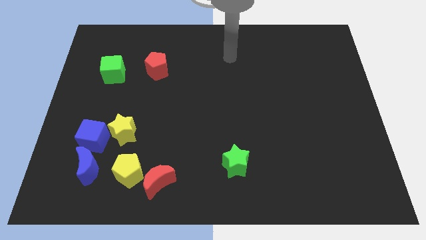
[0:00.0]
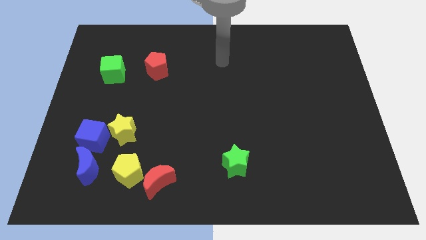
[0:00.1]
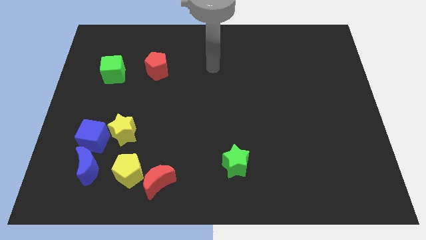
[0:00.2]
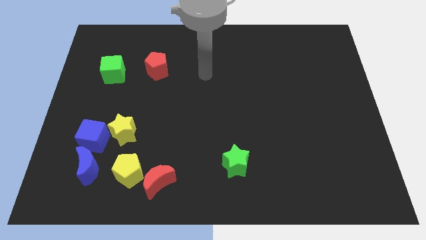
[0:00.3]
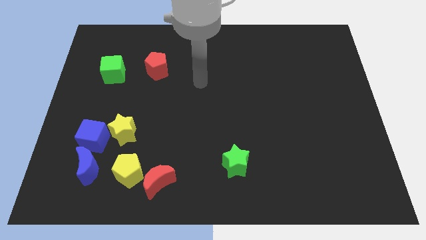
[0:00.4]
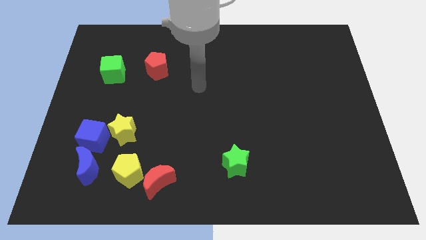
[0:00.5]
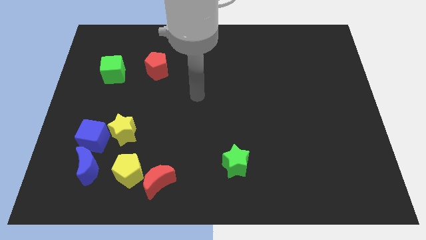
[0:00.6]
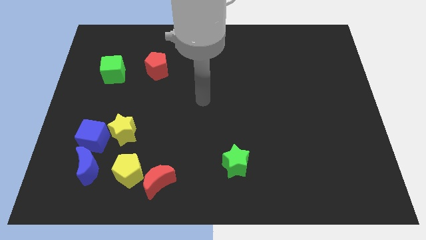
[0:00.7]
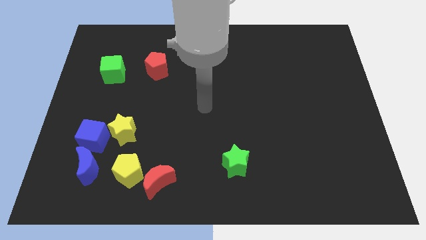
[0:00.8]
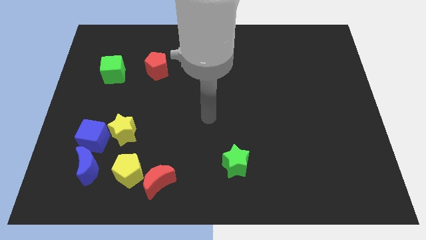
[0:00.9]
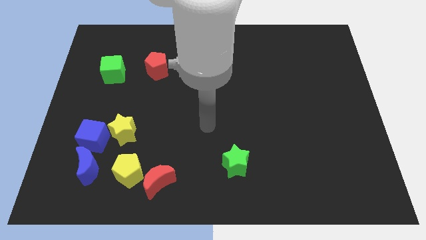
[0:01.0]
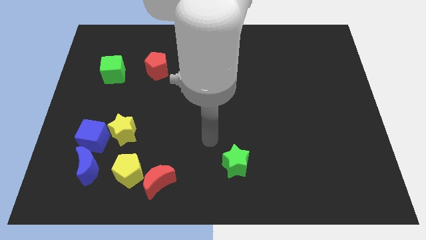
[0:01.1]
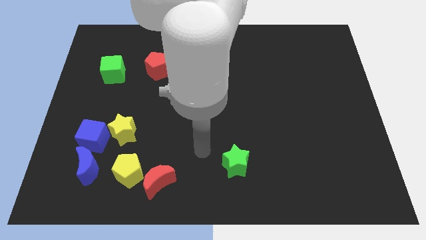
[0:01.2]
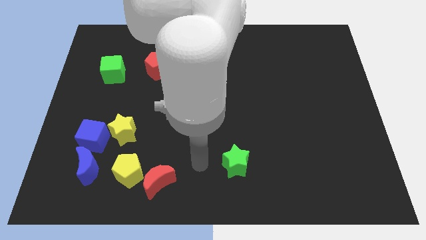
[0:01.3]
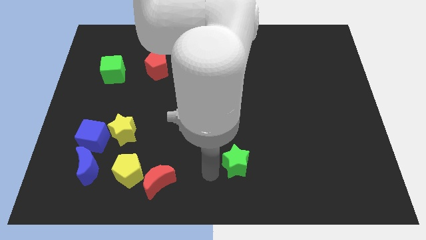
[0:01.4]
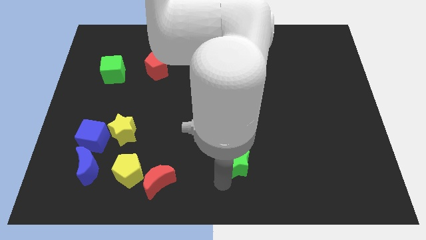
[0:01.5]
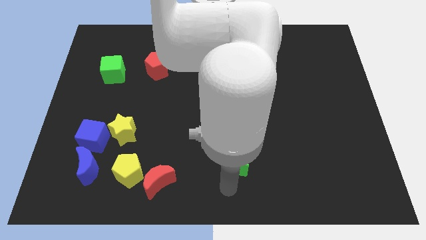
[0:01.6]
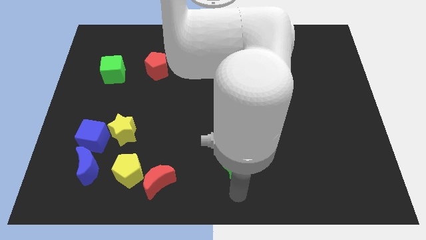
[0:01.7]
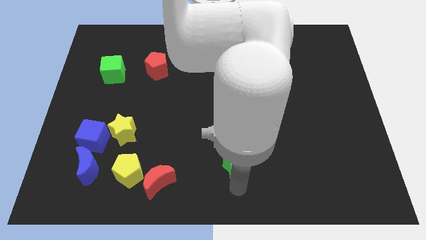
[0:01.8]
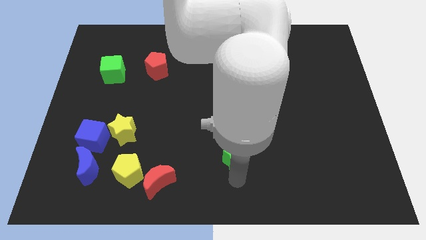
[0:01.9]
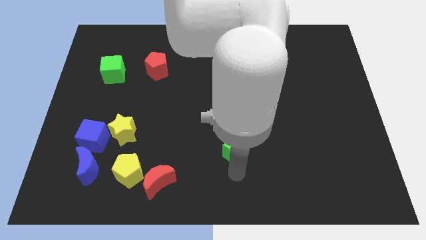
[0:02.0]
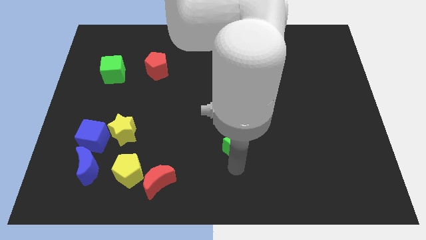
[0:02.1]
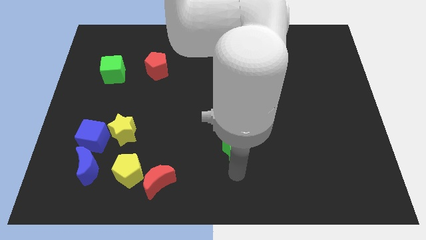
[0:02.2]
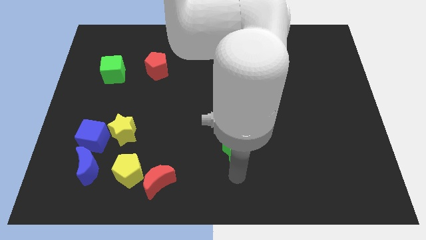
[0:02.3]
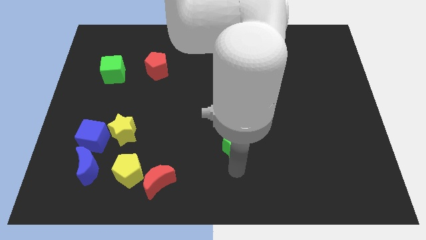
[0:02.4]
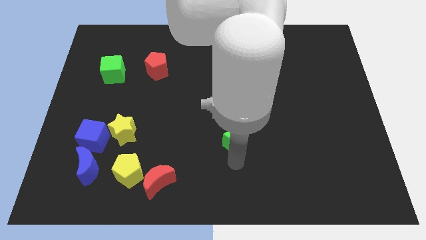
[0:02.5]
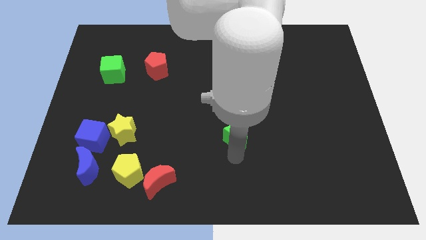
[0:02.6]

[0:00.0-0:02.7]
slide the green star upwards slightly

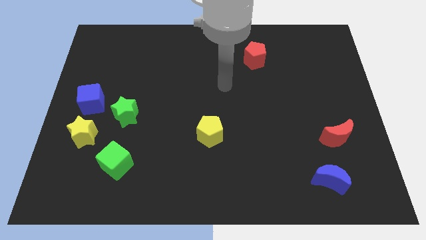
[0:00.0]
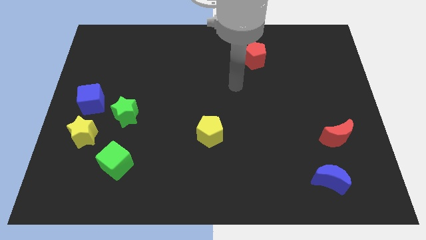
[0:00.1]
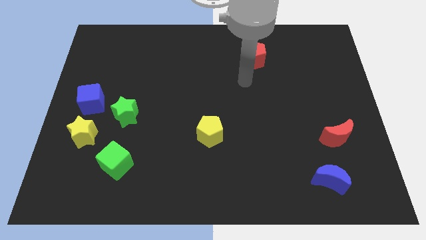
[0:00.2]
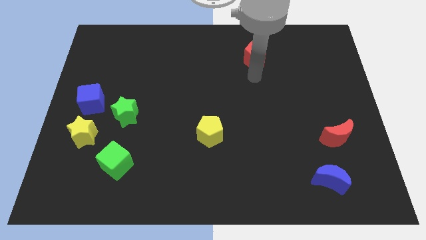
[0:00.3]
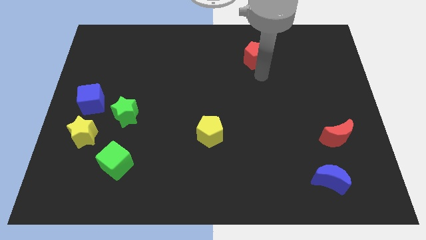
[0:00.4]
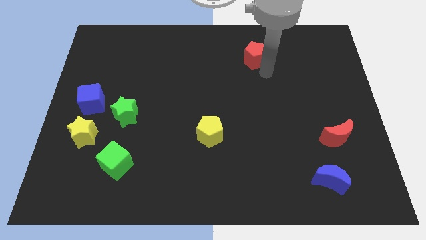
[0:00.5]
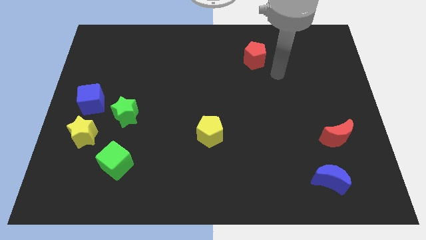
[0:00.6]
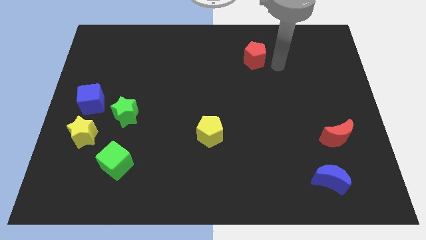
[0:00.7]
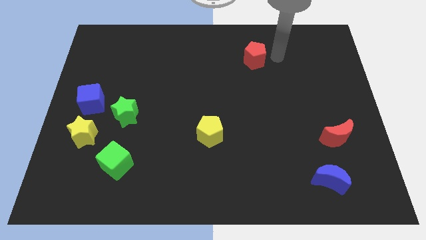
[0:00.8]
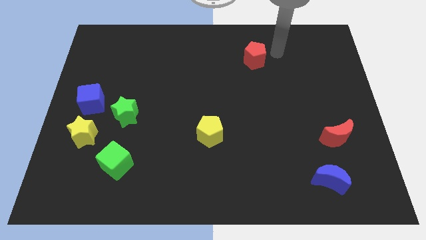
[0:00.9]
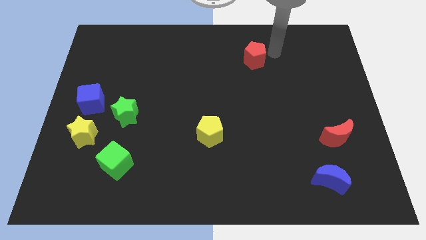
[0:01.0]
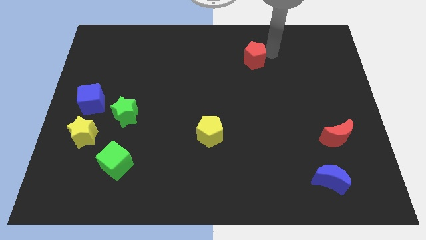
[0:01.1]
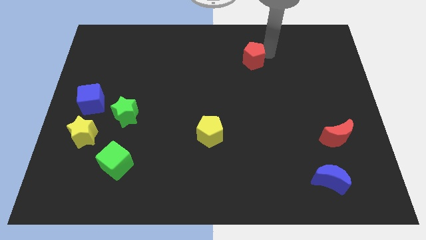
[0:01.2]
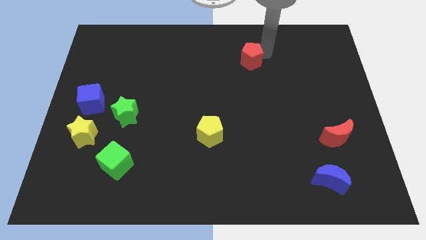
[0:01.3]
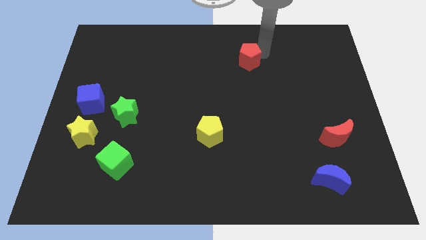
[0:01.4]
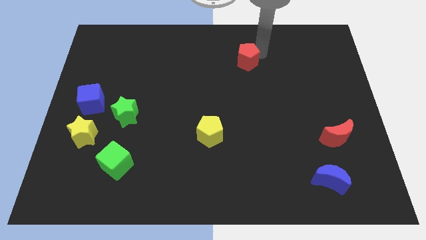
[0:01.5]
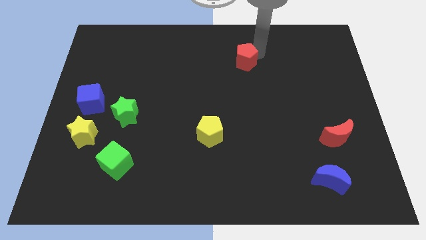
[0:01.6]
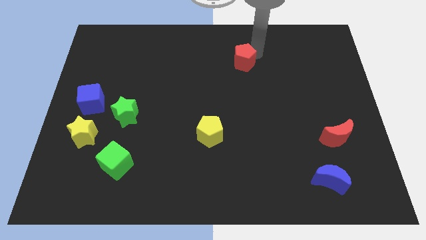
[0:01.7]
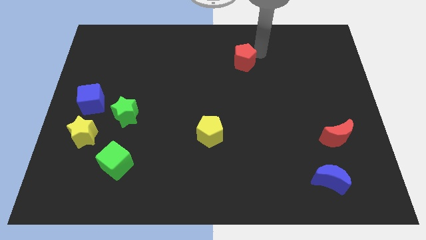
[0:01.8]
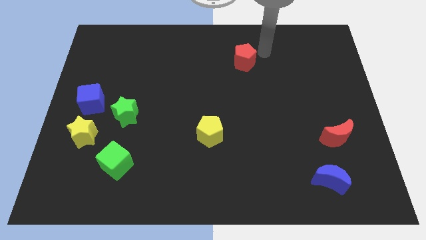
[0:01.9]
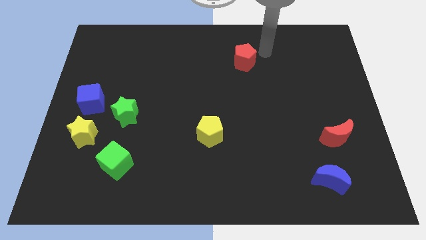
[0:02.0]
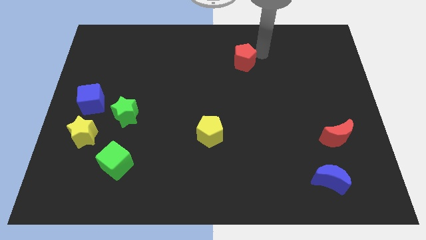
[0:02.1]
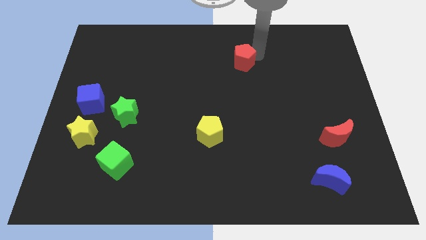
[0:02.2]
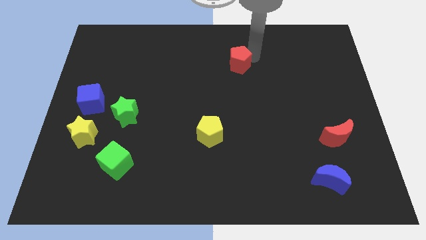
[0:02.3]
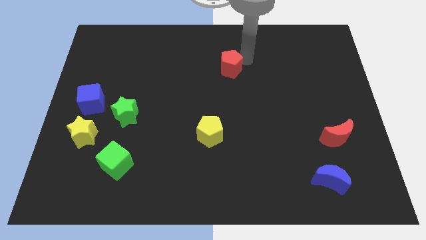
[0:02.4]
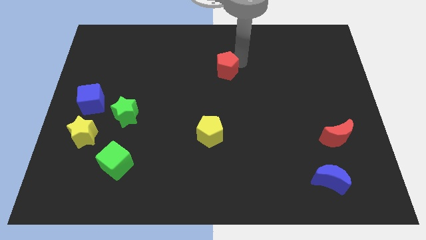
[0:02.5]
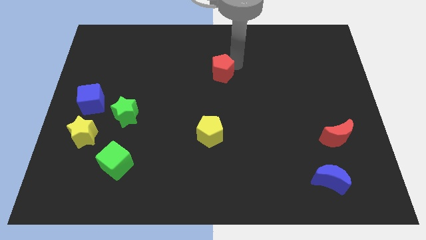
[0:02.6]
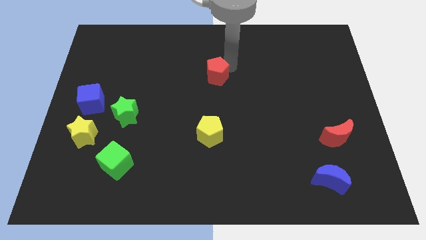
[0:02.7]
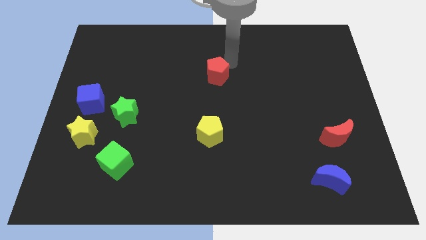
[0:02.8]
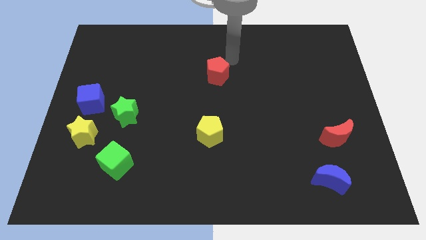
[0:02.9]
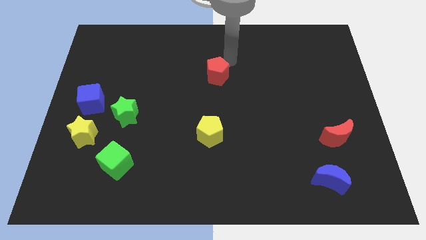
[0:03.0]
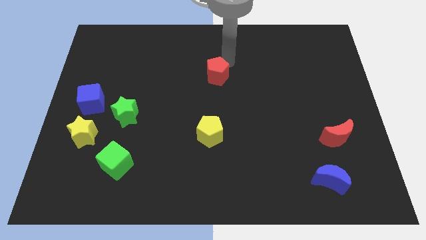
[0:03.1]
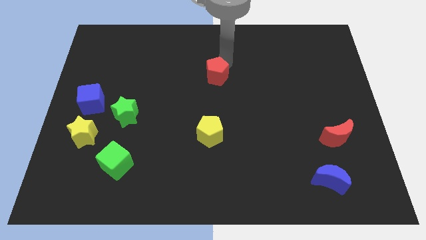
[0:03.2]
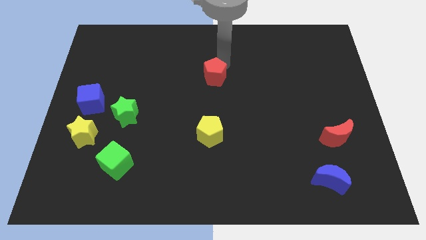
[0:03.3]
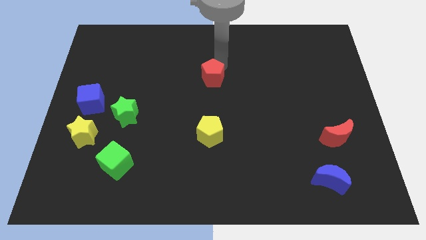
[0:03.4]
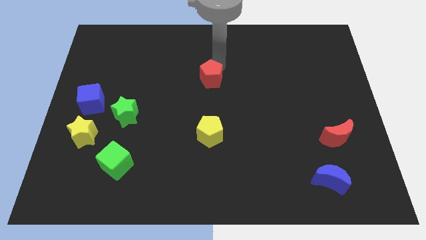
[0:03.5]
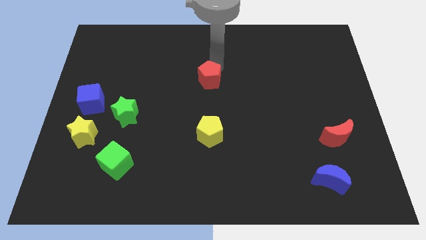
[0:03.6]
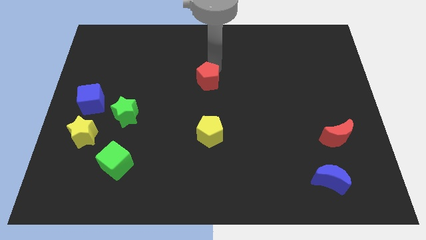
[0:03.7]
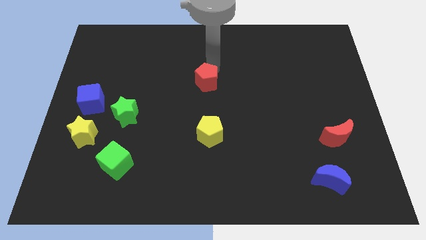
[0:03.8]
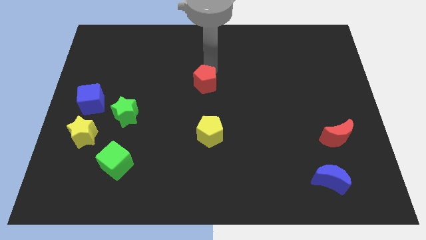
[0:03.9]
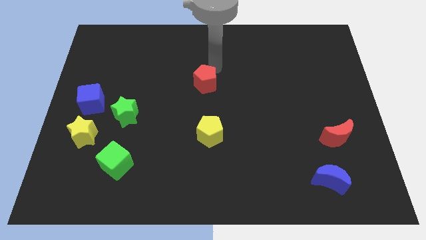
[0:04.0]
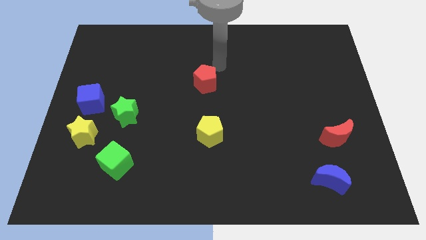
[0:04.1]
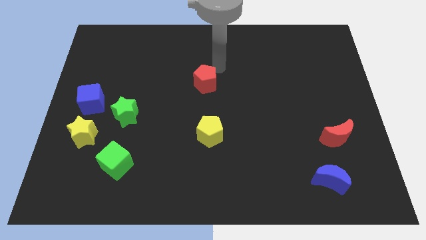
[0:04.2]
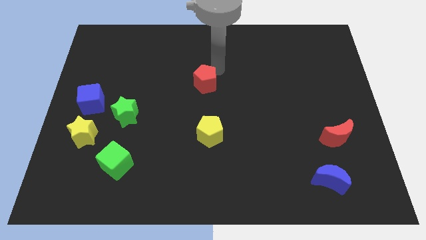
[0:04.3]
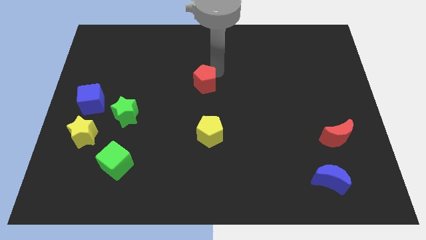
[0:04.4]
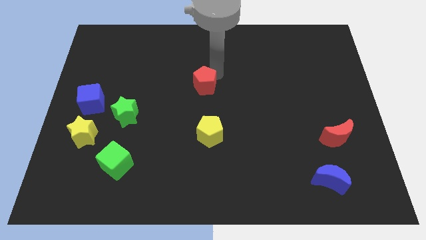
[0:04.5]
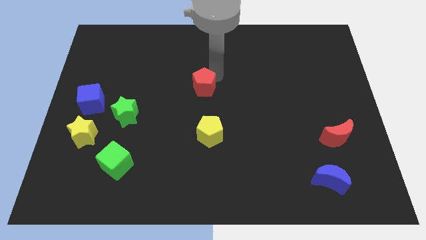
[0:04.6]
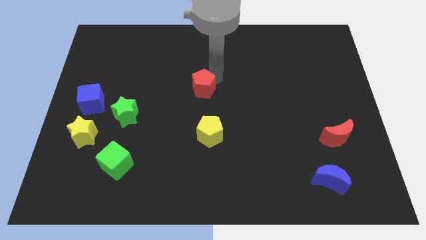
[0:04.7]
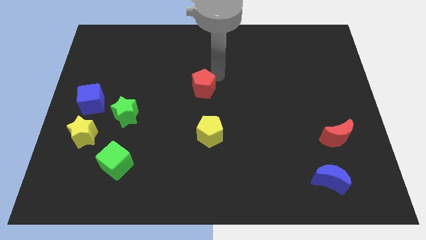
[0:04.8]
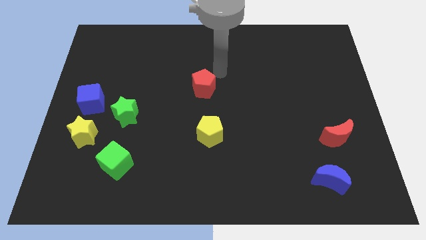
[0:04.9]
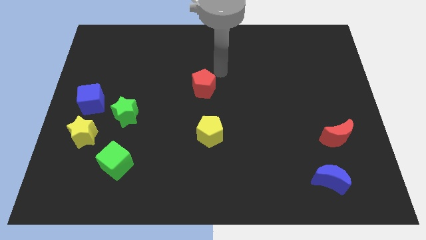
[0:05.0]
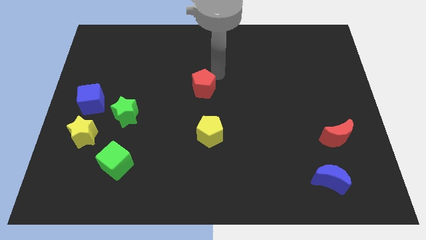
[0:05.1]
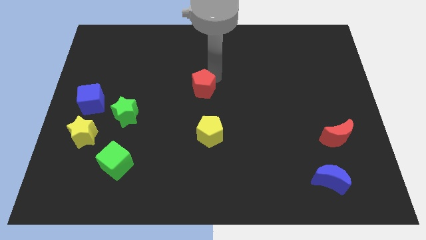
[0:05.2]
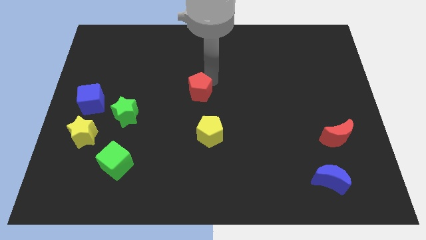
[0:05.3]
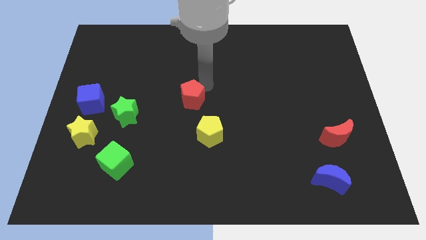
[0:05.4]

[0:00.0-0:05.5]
slide the red pentagon down and left diagonally
